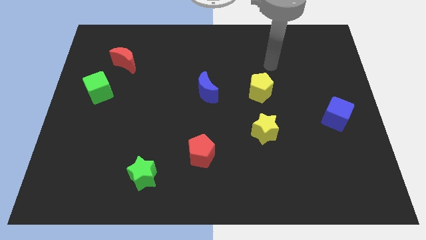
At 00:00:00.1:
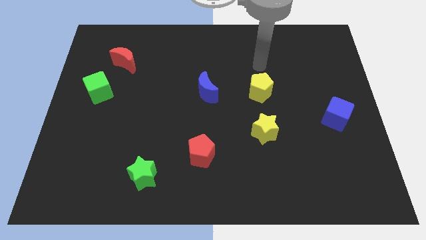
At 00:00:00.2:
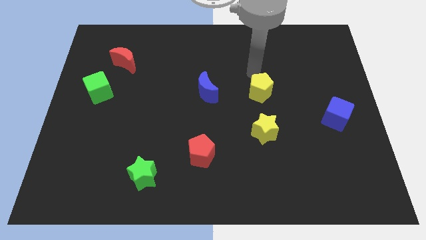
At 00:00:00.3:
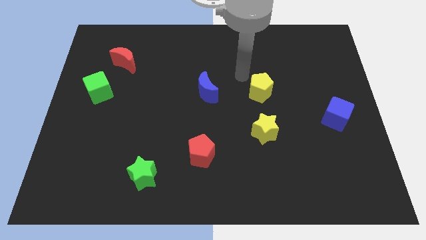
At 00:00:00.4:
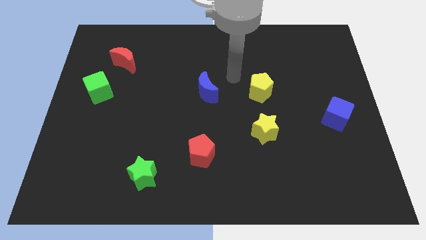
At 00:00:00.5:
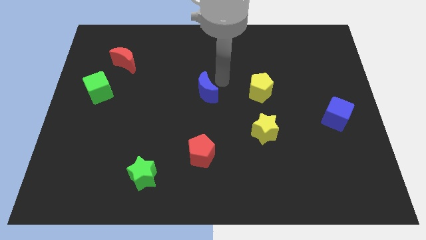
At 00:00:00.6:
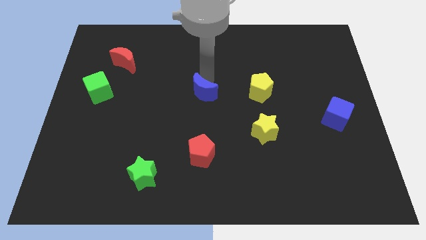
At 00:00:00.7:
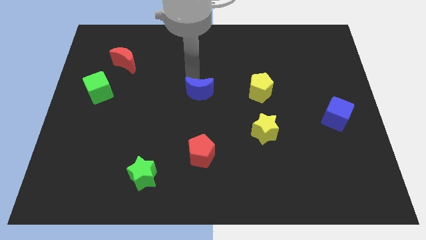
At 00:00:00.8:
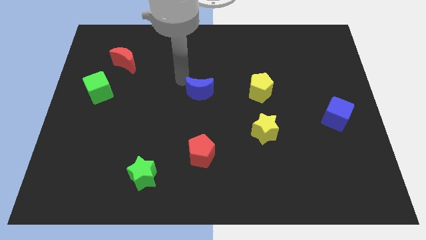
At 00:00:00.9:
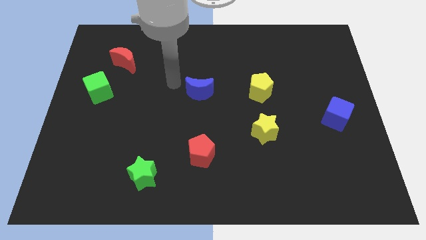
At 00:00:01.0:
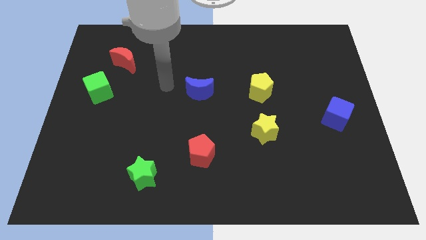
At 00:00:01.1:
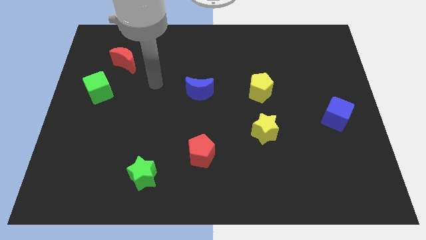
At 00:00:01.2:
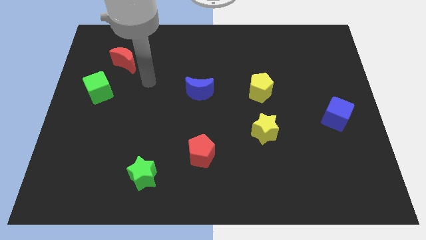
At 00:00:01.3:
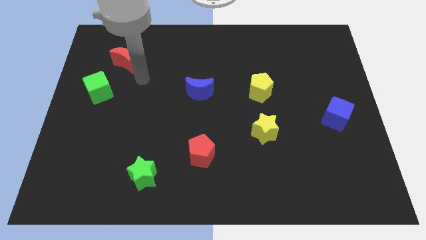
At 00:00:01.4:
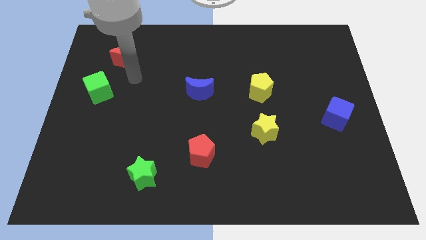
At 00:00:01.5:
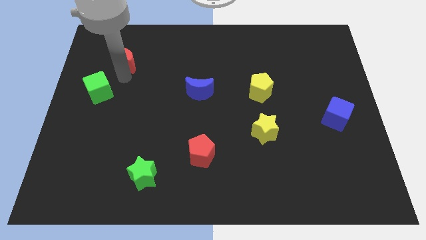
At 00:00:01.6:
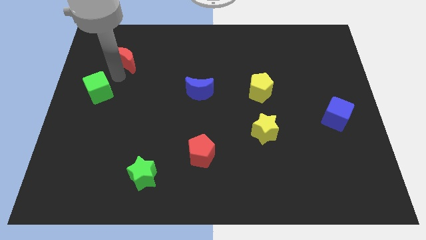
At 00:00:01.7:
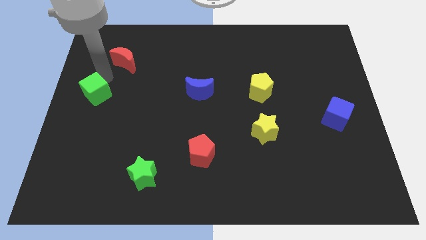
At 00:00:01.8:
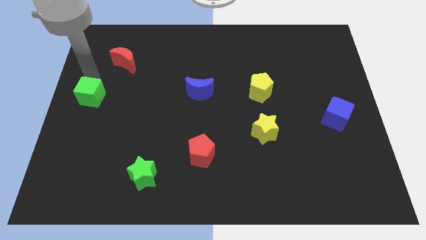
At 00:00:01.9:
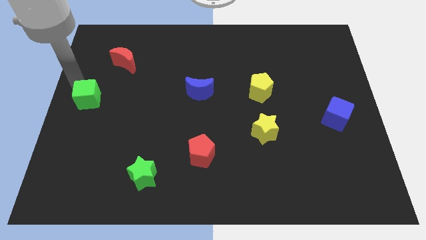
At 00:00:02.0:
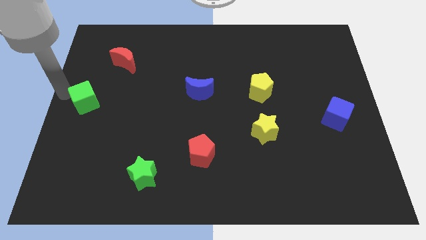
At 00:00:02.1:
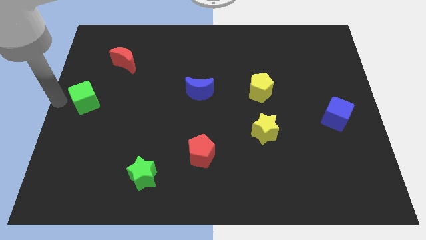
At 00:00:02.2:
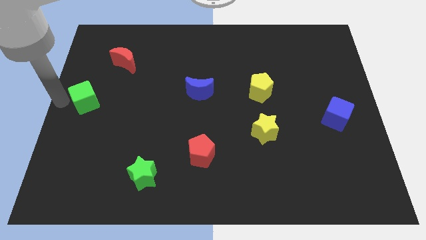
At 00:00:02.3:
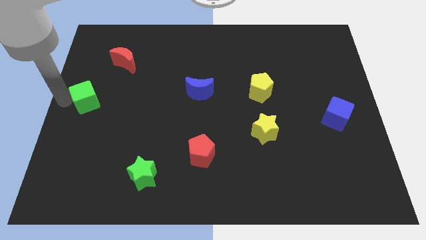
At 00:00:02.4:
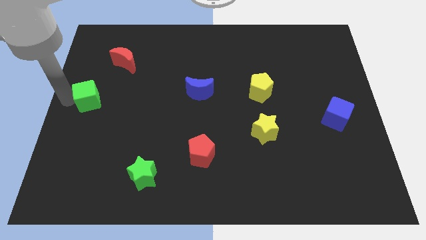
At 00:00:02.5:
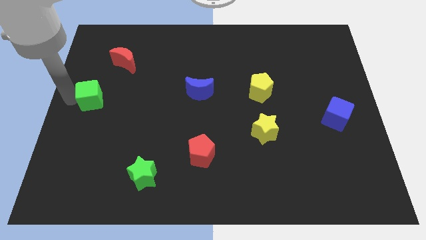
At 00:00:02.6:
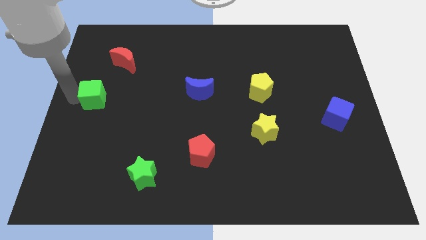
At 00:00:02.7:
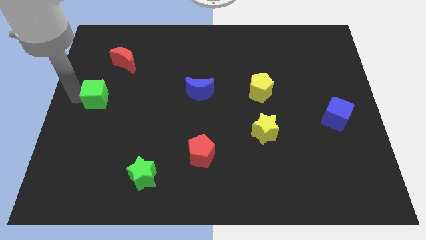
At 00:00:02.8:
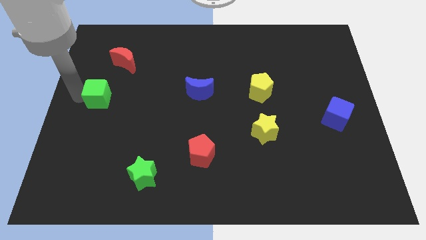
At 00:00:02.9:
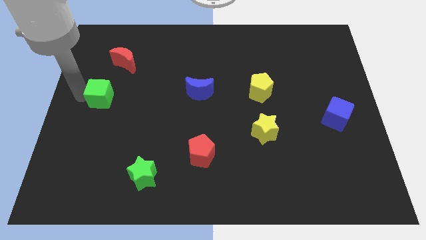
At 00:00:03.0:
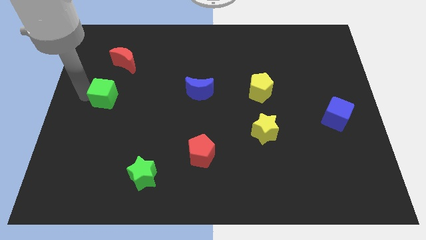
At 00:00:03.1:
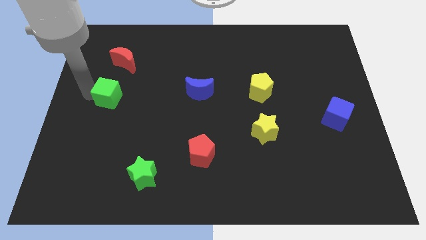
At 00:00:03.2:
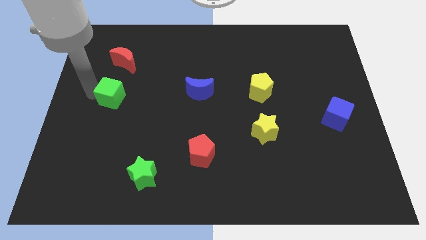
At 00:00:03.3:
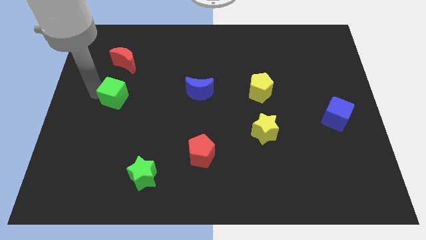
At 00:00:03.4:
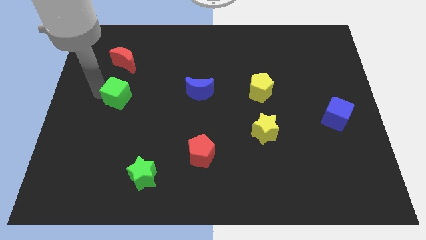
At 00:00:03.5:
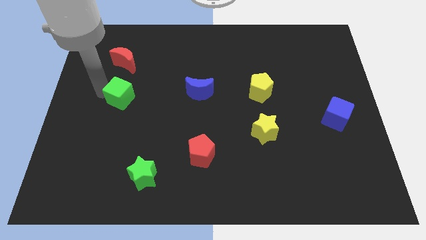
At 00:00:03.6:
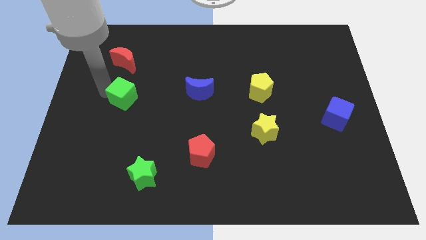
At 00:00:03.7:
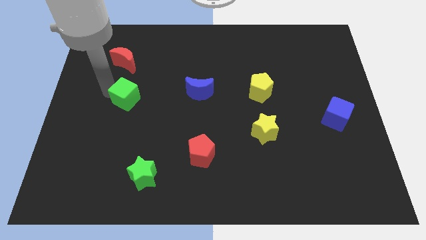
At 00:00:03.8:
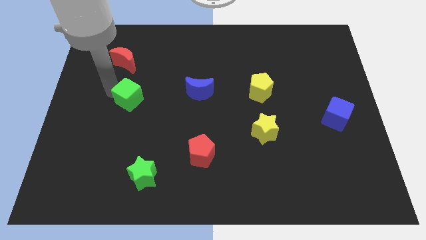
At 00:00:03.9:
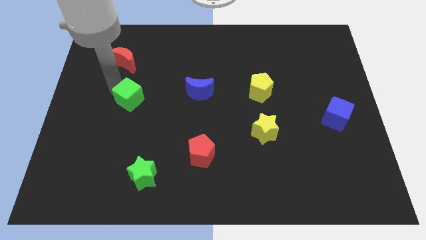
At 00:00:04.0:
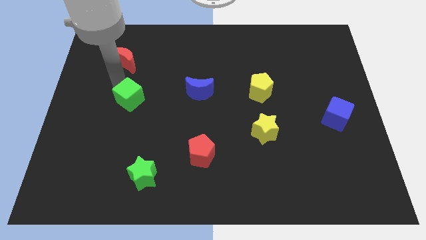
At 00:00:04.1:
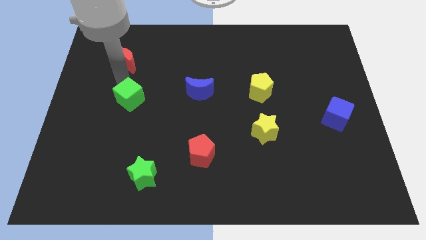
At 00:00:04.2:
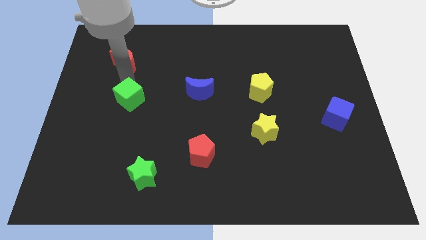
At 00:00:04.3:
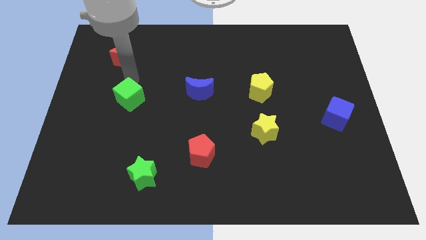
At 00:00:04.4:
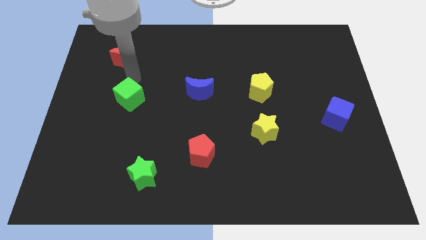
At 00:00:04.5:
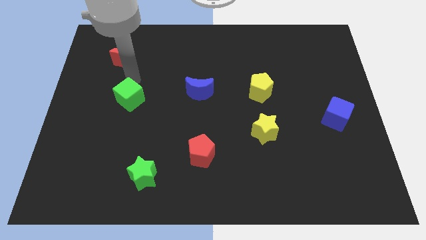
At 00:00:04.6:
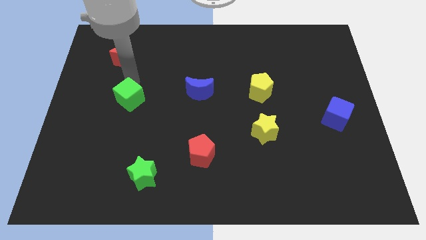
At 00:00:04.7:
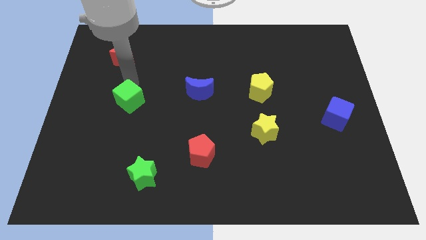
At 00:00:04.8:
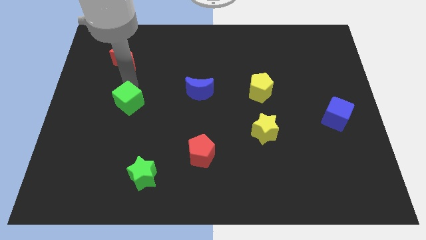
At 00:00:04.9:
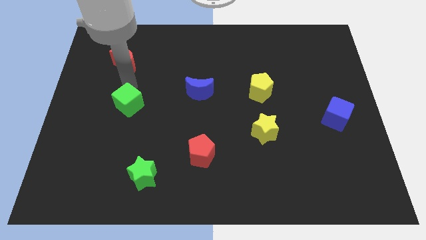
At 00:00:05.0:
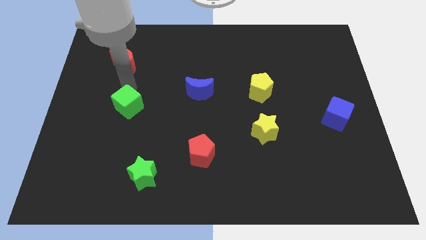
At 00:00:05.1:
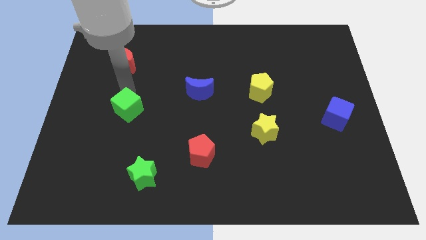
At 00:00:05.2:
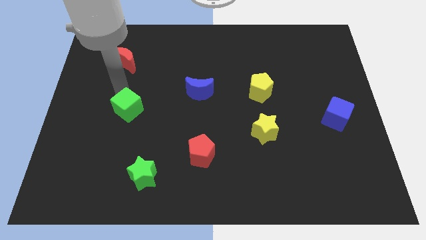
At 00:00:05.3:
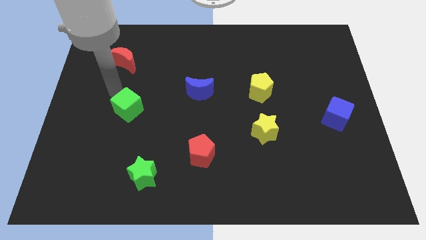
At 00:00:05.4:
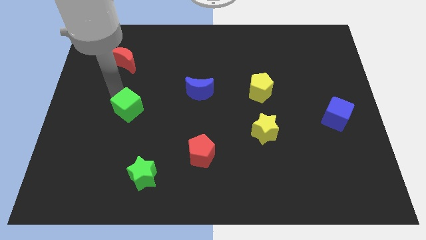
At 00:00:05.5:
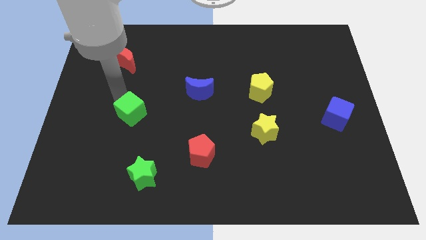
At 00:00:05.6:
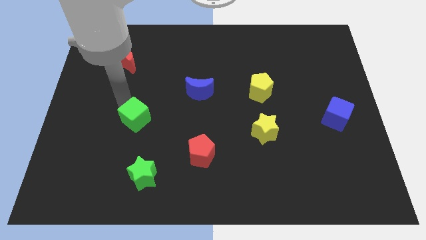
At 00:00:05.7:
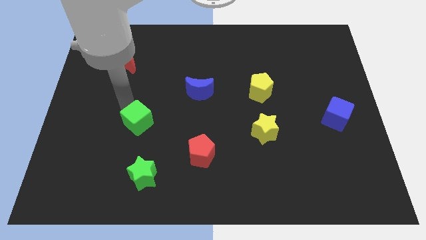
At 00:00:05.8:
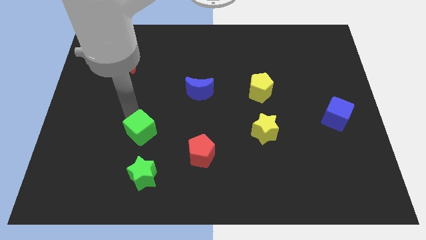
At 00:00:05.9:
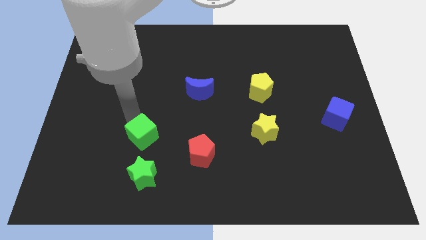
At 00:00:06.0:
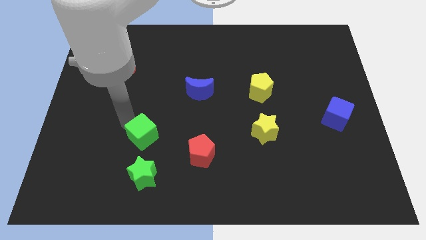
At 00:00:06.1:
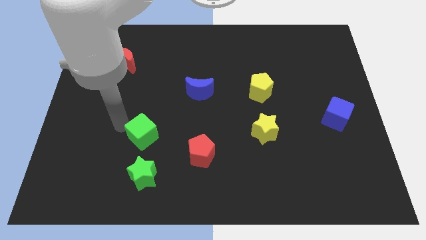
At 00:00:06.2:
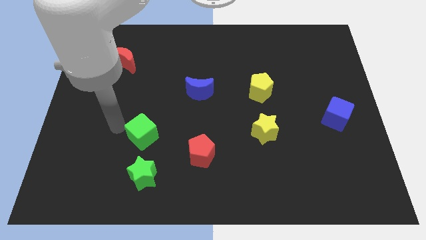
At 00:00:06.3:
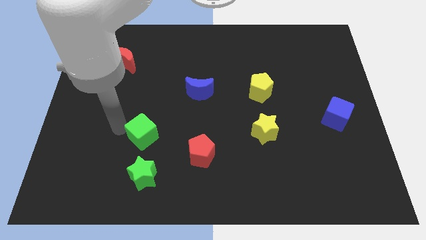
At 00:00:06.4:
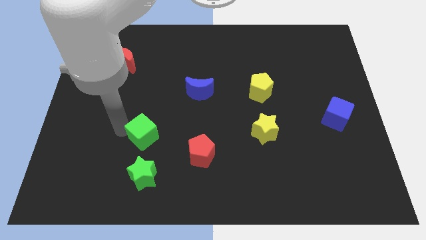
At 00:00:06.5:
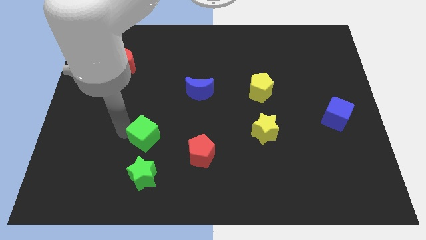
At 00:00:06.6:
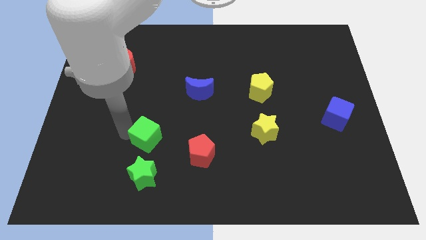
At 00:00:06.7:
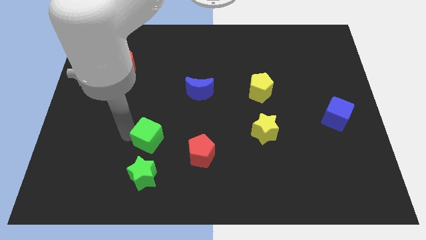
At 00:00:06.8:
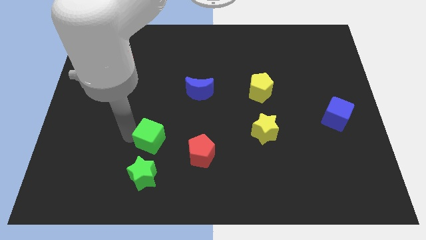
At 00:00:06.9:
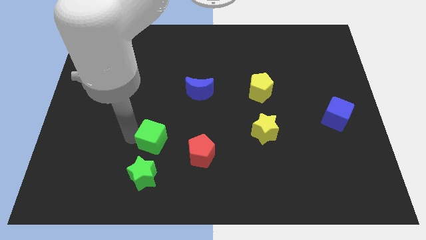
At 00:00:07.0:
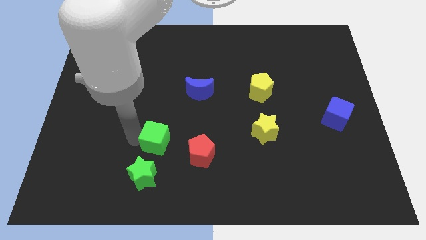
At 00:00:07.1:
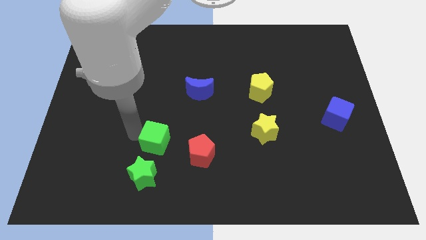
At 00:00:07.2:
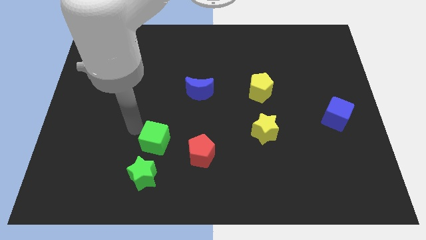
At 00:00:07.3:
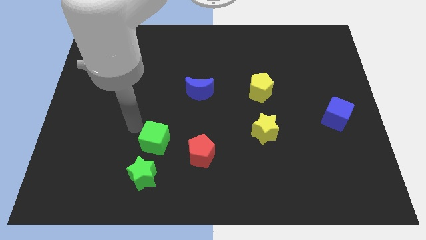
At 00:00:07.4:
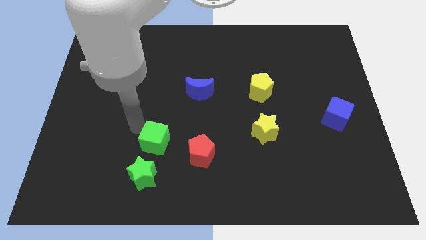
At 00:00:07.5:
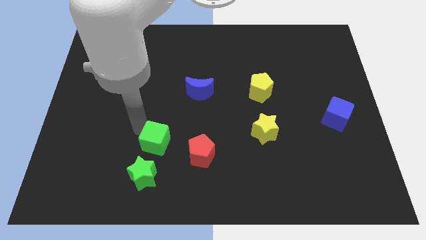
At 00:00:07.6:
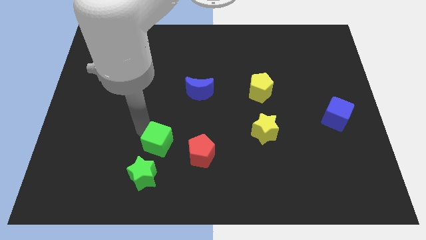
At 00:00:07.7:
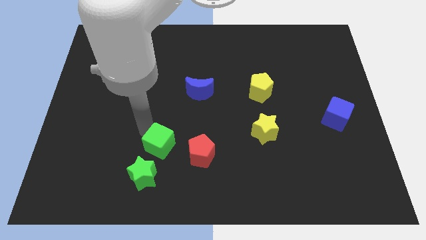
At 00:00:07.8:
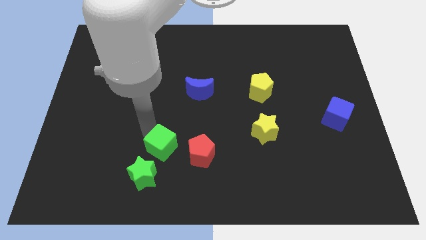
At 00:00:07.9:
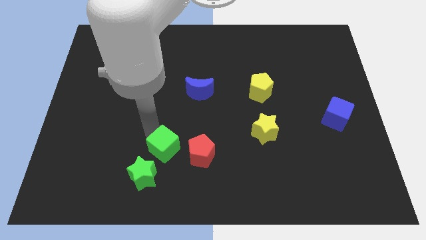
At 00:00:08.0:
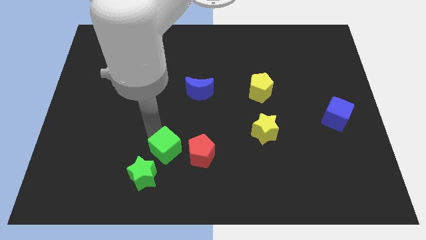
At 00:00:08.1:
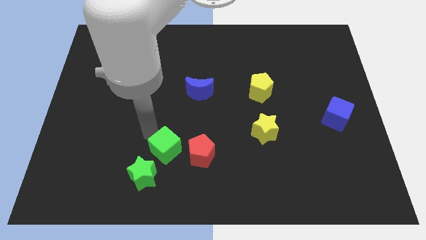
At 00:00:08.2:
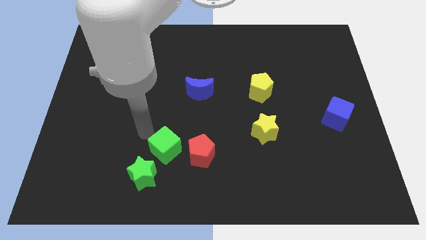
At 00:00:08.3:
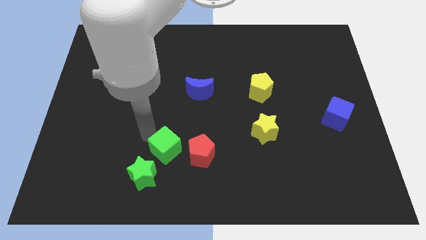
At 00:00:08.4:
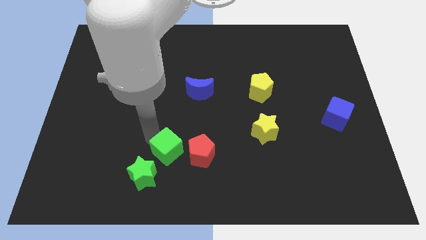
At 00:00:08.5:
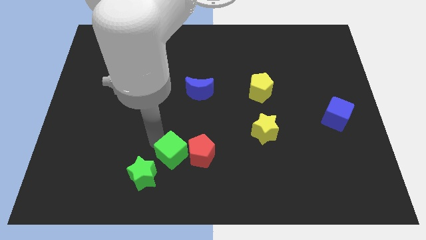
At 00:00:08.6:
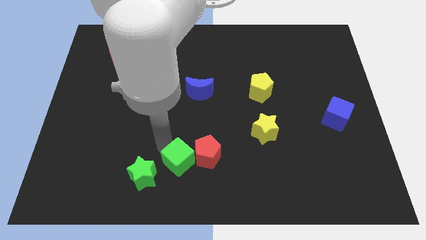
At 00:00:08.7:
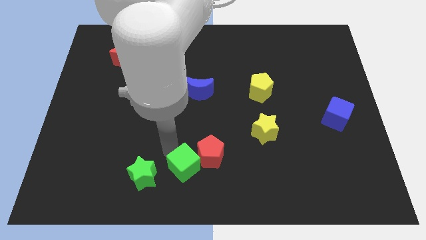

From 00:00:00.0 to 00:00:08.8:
move the green cube to the bottom
